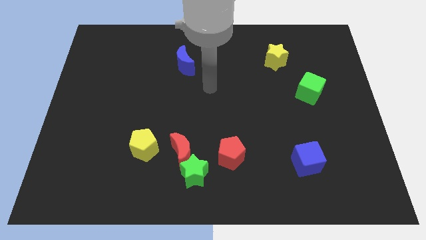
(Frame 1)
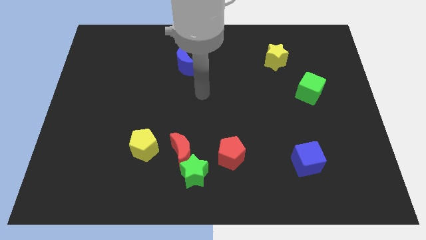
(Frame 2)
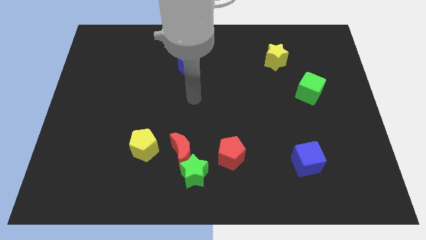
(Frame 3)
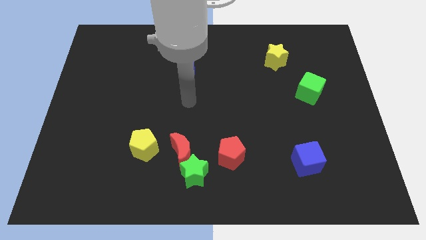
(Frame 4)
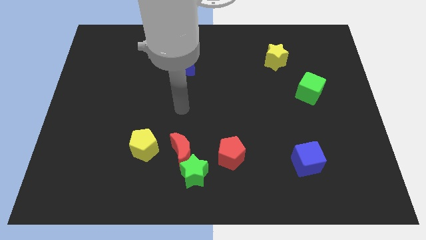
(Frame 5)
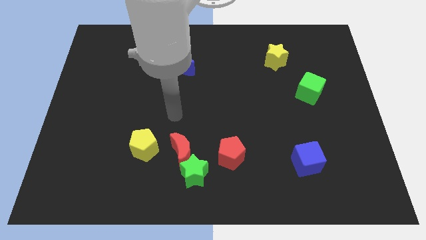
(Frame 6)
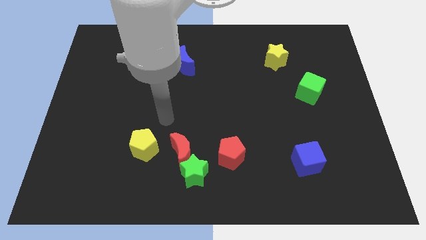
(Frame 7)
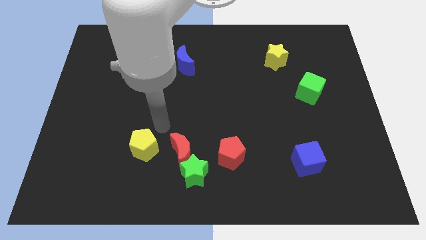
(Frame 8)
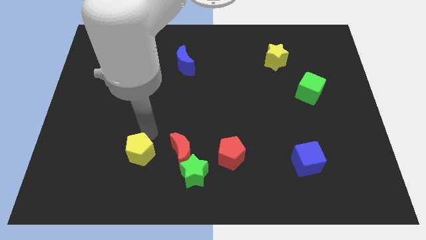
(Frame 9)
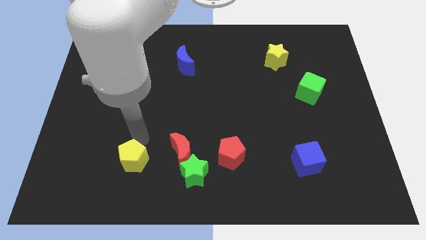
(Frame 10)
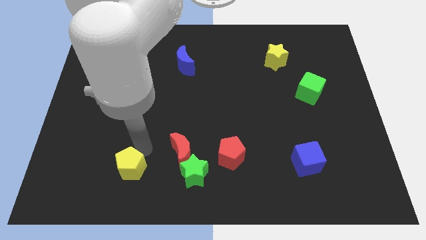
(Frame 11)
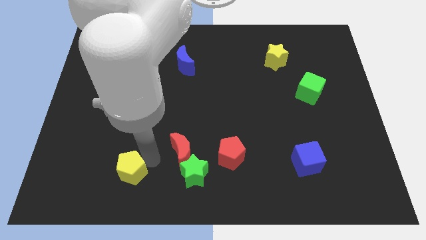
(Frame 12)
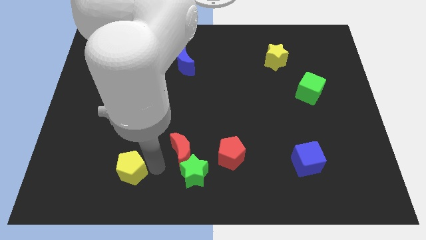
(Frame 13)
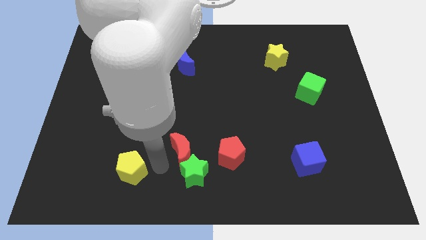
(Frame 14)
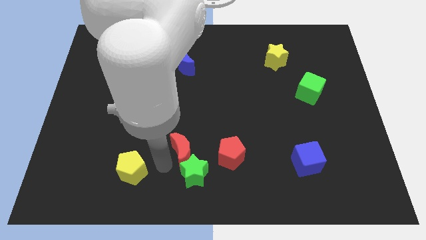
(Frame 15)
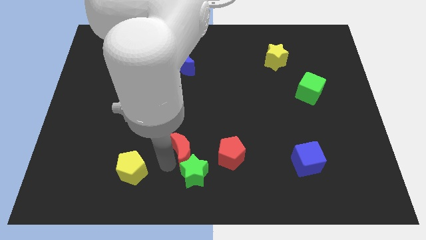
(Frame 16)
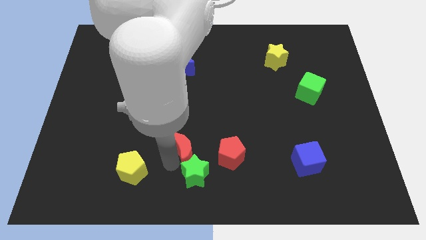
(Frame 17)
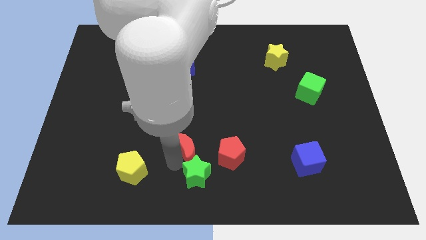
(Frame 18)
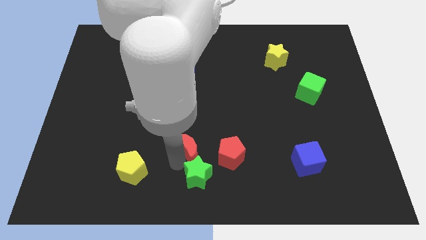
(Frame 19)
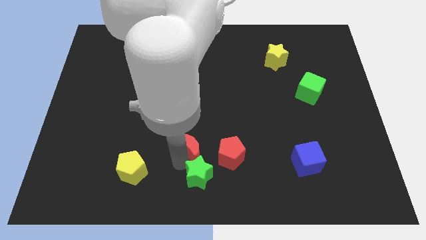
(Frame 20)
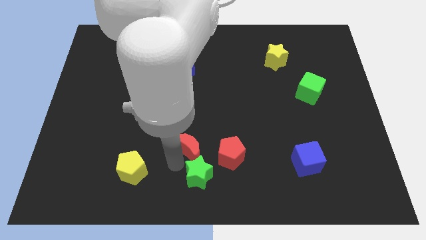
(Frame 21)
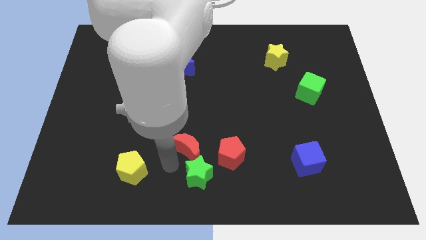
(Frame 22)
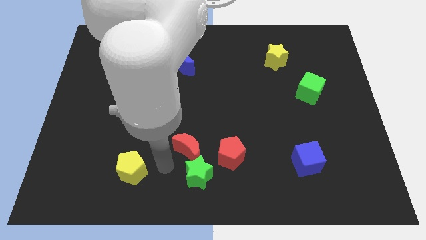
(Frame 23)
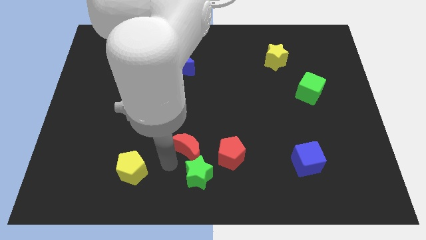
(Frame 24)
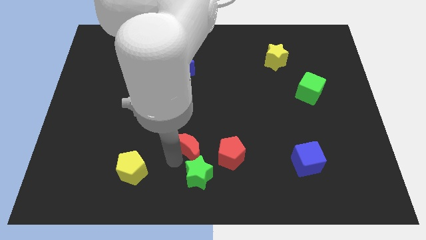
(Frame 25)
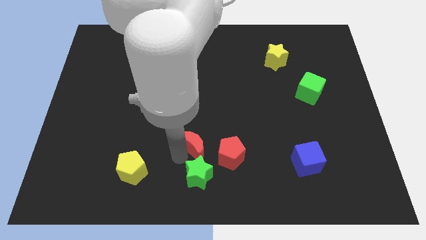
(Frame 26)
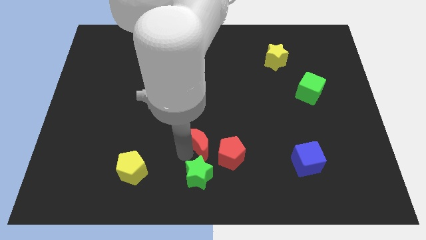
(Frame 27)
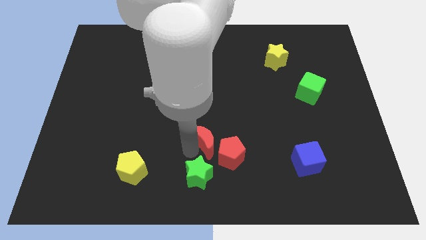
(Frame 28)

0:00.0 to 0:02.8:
separate the red moon from the green star and yellow pentagon

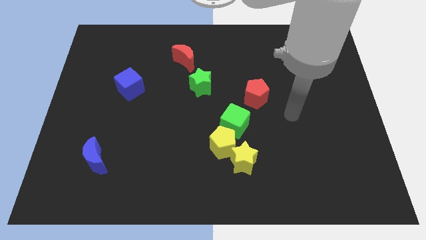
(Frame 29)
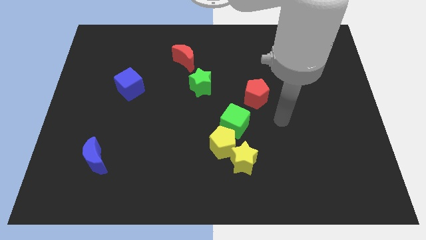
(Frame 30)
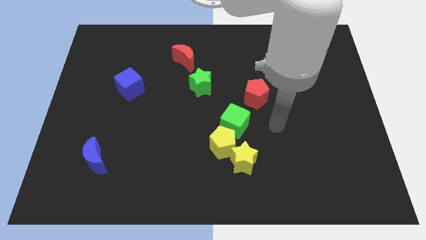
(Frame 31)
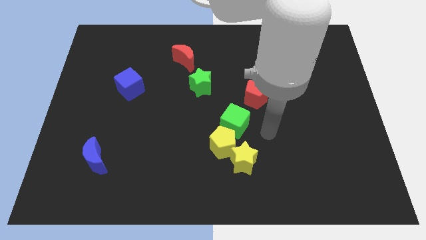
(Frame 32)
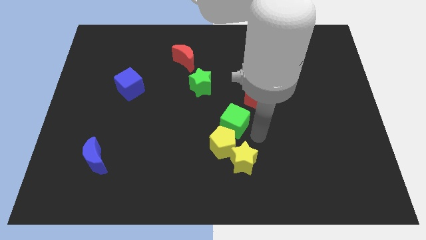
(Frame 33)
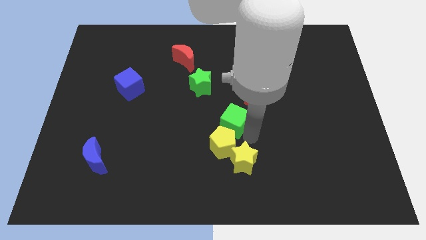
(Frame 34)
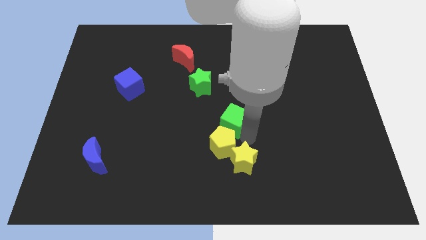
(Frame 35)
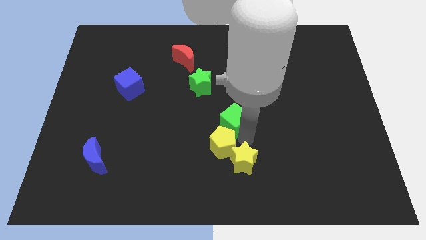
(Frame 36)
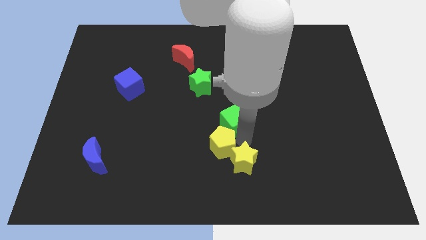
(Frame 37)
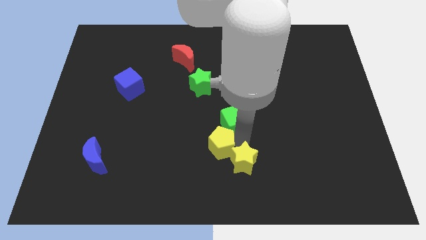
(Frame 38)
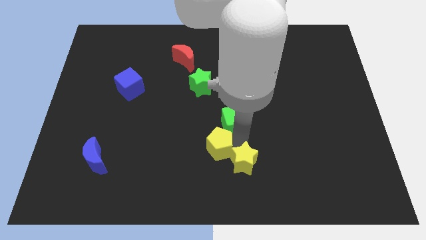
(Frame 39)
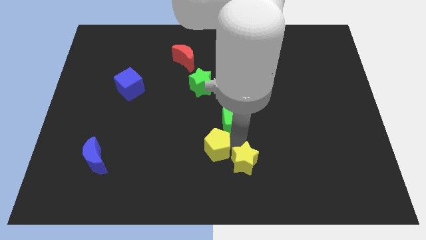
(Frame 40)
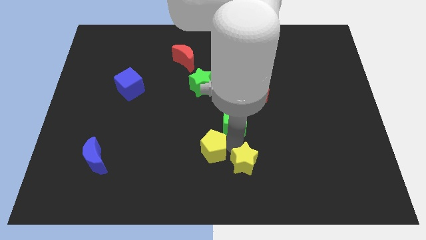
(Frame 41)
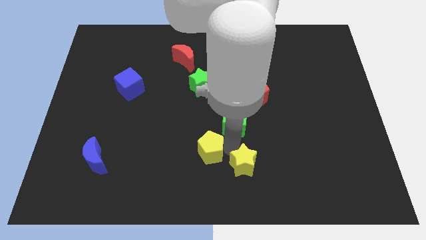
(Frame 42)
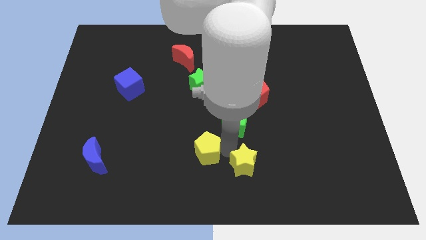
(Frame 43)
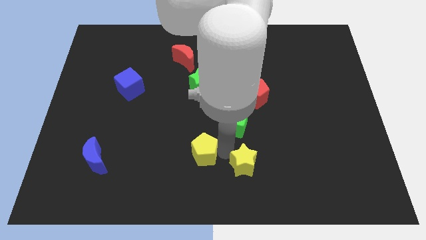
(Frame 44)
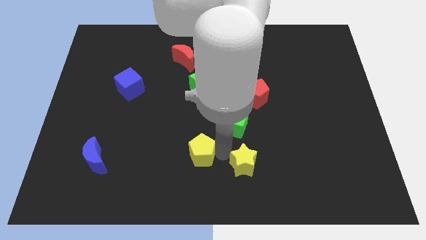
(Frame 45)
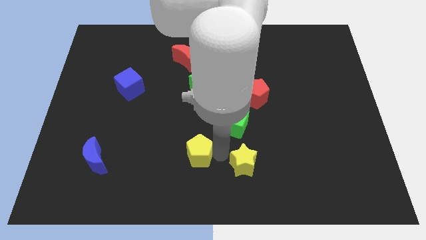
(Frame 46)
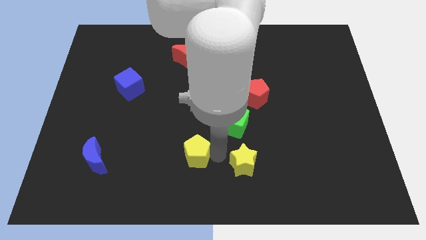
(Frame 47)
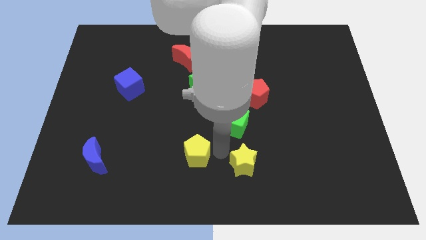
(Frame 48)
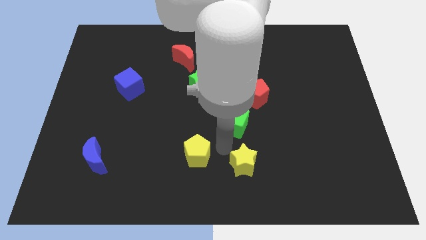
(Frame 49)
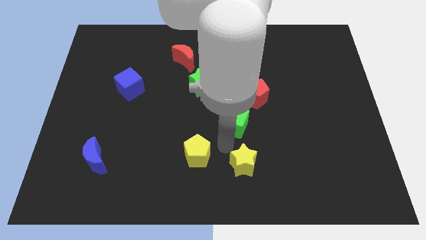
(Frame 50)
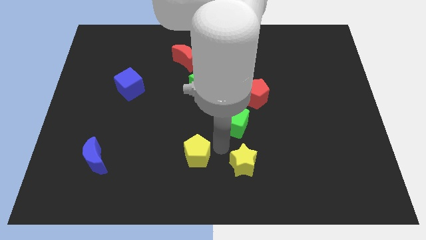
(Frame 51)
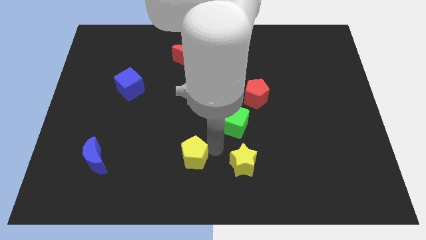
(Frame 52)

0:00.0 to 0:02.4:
pull the yellow pentagon apart from the yellow star and green cube

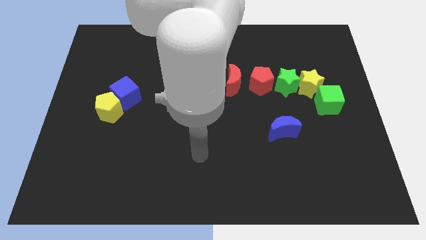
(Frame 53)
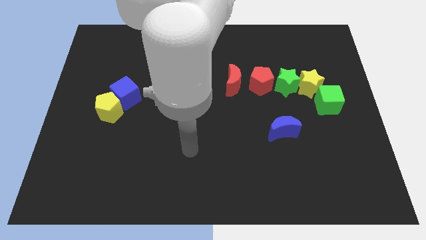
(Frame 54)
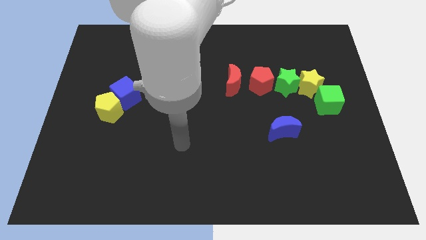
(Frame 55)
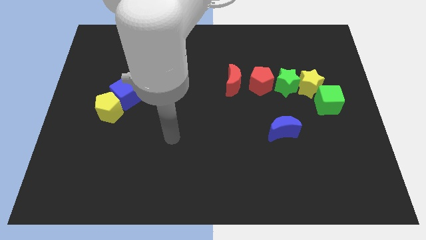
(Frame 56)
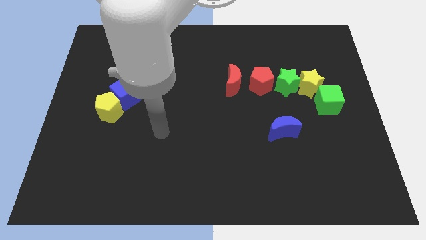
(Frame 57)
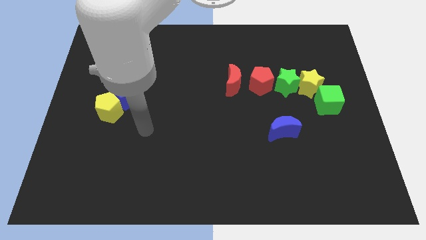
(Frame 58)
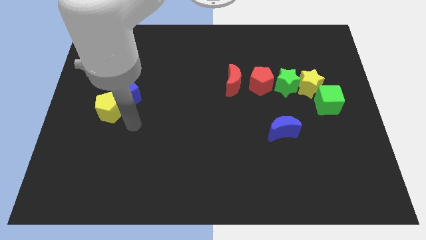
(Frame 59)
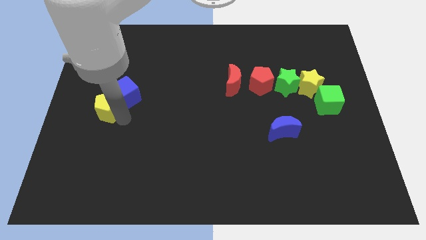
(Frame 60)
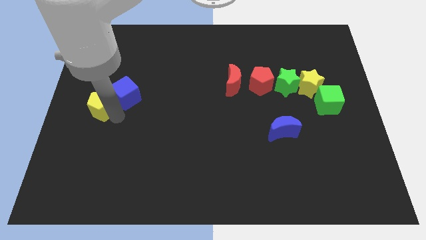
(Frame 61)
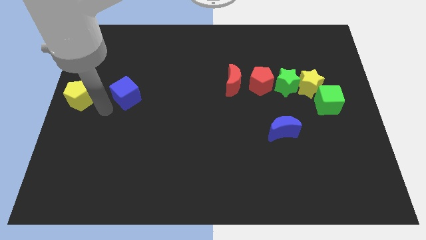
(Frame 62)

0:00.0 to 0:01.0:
move the blue cube away from the yellow pentagon

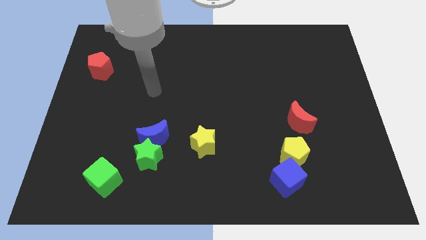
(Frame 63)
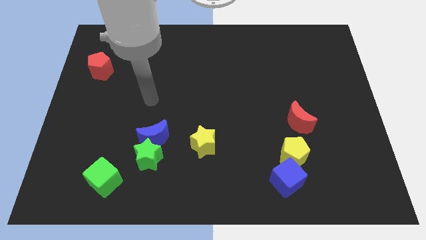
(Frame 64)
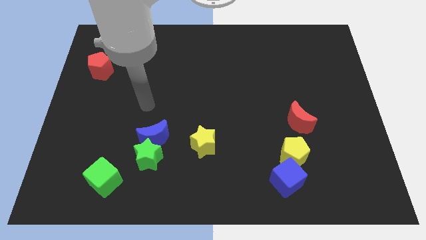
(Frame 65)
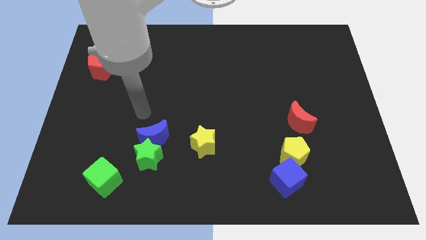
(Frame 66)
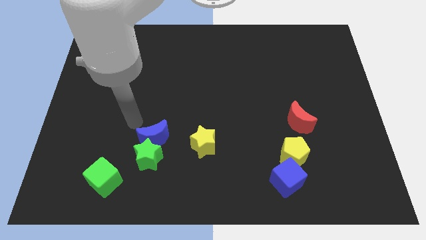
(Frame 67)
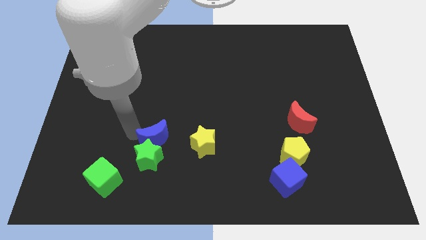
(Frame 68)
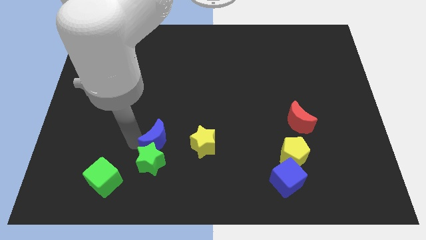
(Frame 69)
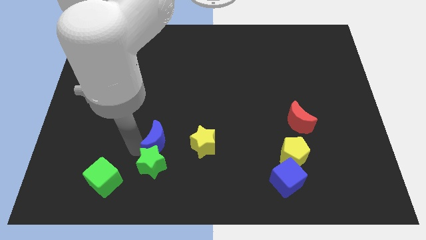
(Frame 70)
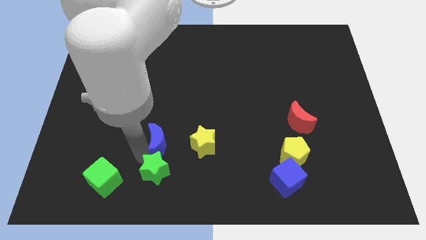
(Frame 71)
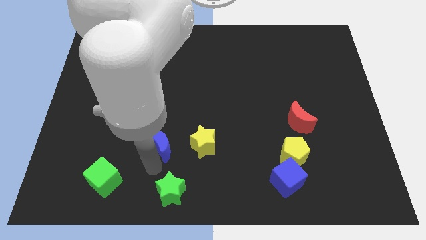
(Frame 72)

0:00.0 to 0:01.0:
move the blue moon away from the green star

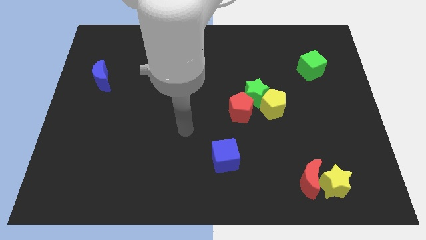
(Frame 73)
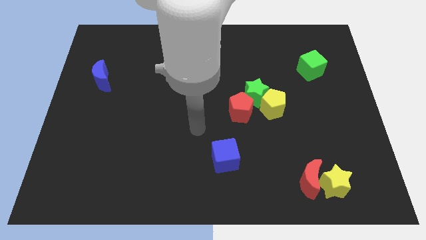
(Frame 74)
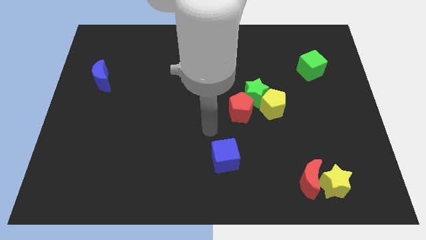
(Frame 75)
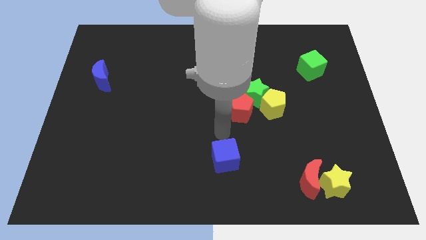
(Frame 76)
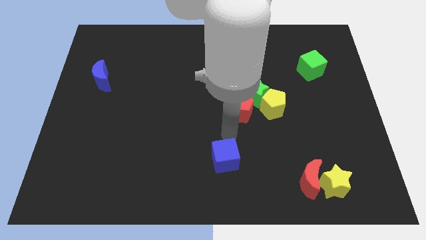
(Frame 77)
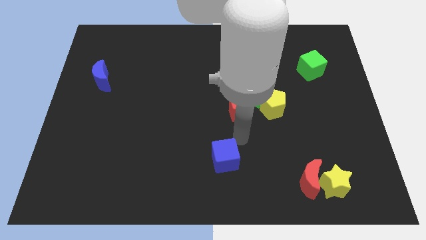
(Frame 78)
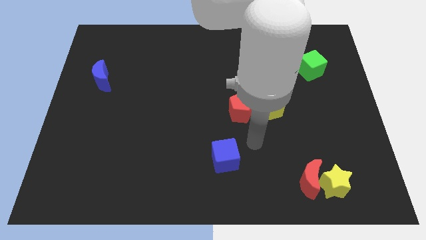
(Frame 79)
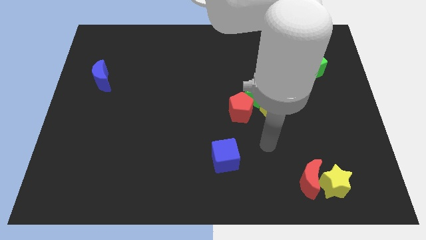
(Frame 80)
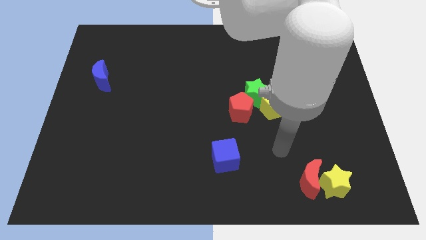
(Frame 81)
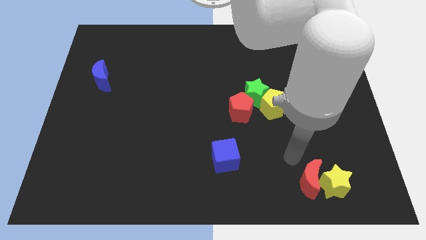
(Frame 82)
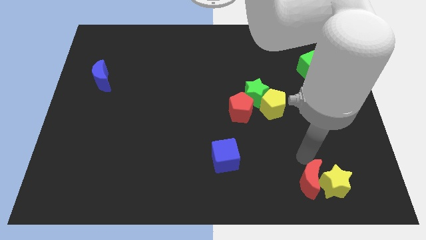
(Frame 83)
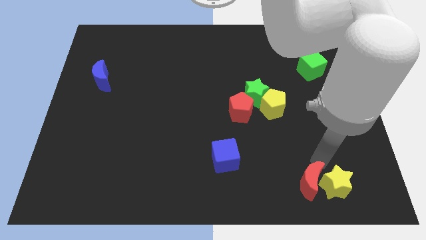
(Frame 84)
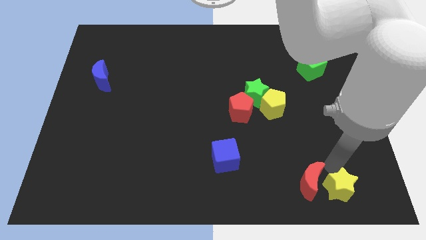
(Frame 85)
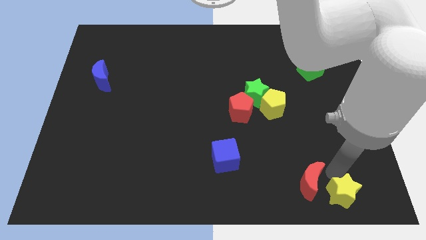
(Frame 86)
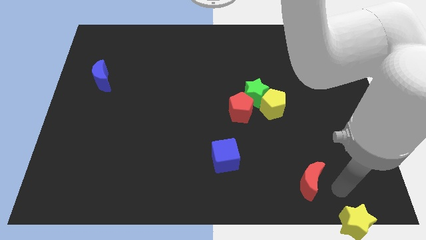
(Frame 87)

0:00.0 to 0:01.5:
separate the red moon from the yellow star

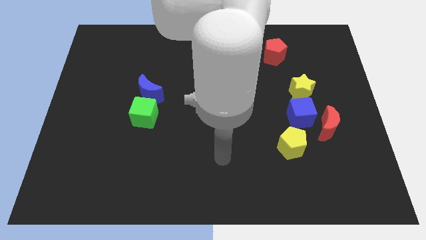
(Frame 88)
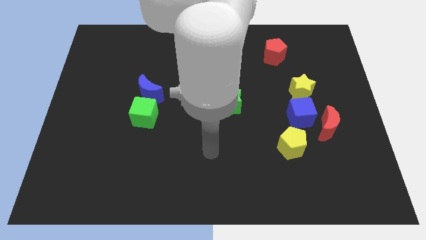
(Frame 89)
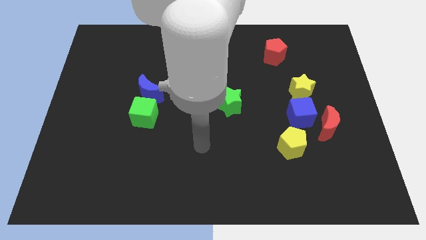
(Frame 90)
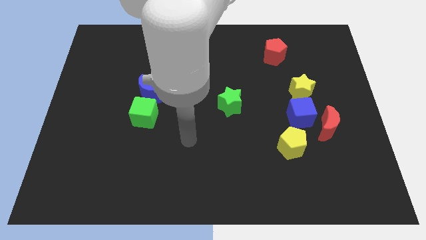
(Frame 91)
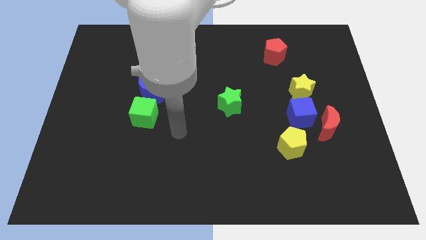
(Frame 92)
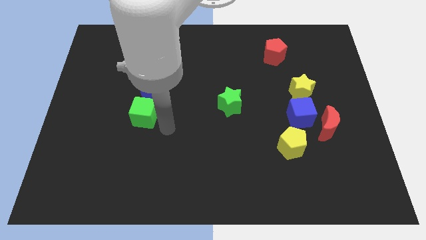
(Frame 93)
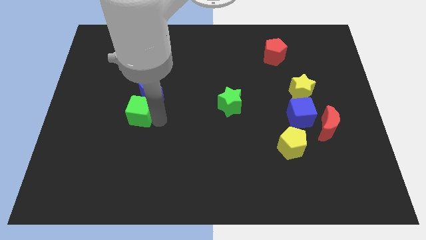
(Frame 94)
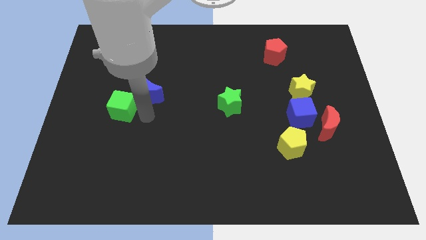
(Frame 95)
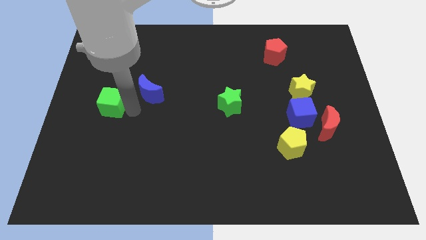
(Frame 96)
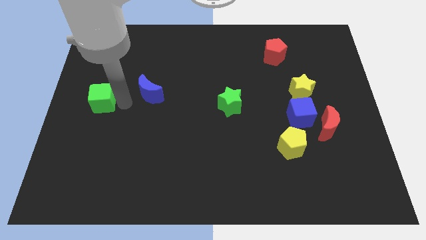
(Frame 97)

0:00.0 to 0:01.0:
pull the blue moon apart from the green cube
